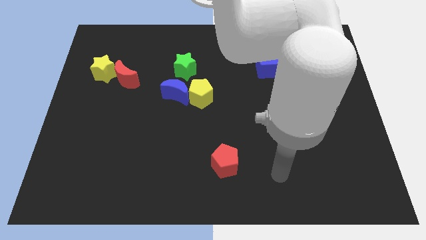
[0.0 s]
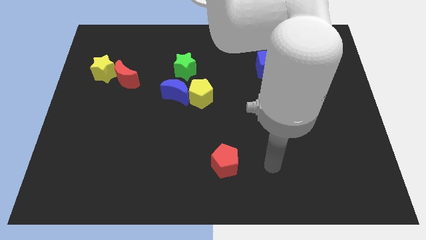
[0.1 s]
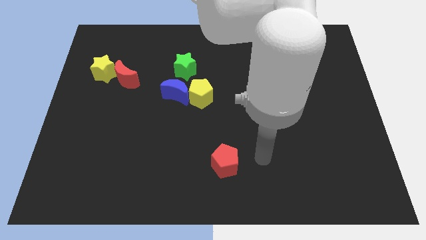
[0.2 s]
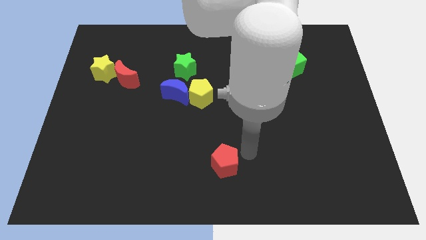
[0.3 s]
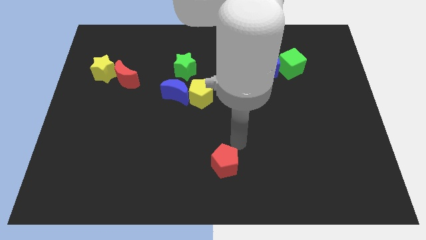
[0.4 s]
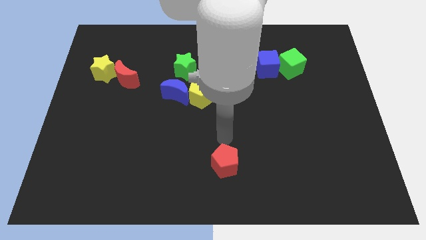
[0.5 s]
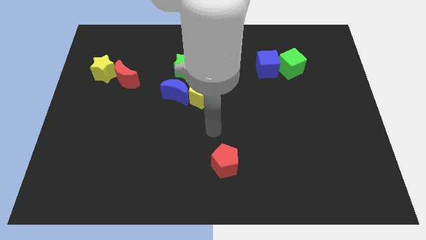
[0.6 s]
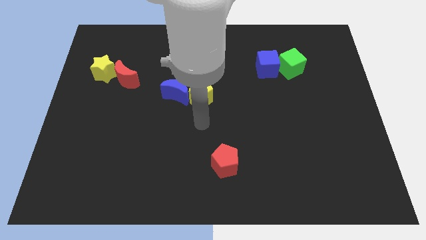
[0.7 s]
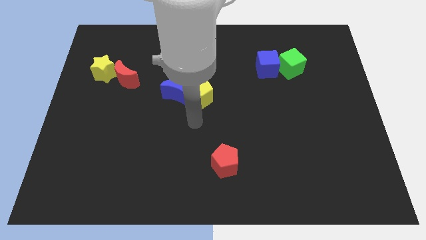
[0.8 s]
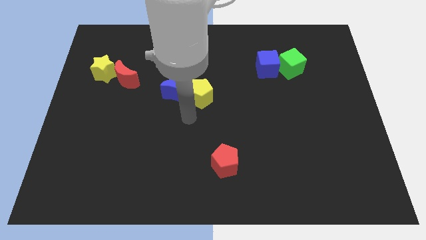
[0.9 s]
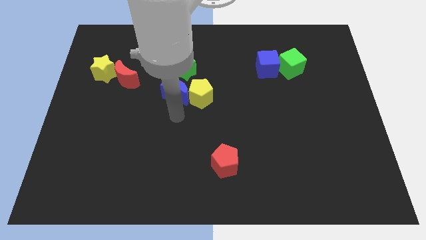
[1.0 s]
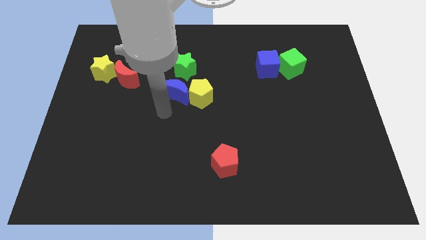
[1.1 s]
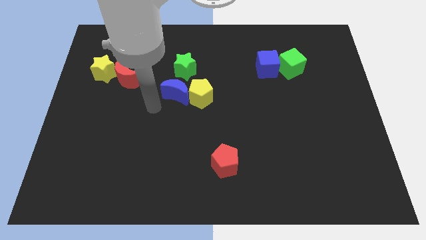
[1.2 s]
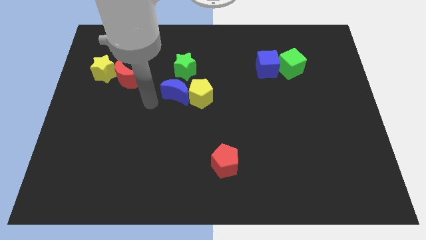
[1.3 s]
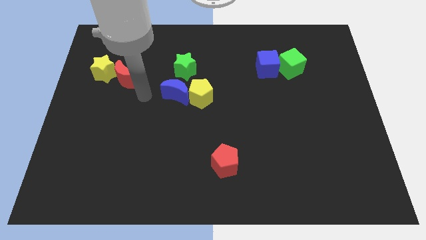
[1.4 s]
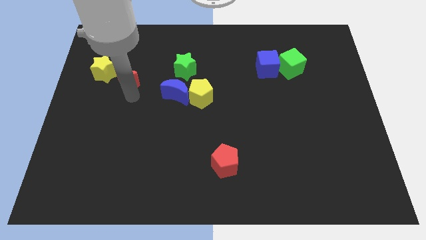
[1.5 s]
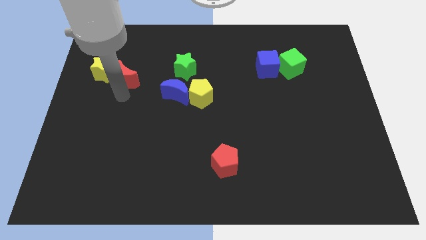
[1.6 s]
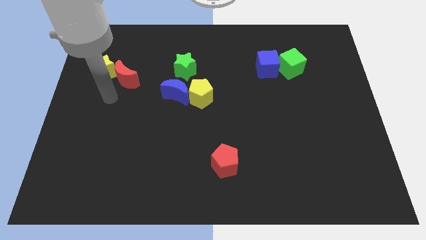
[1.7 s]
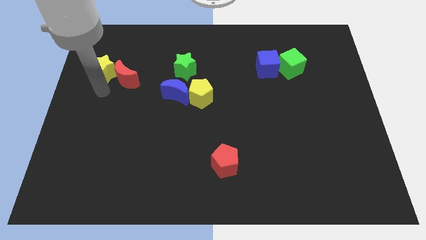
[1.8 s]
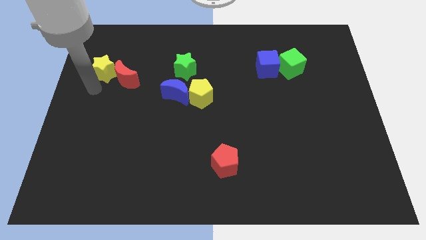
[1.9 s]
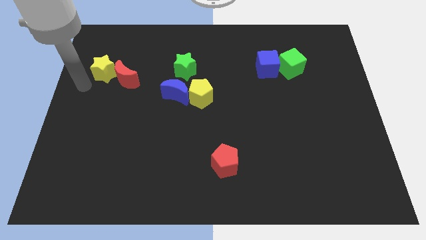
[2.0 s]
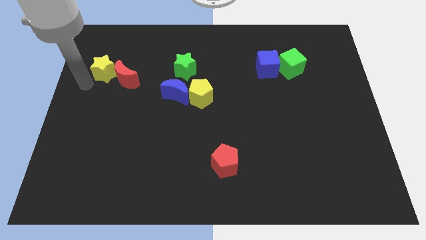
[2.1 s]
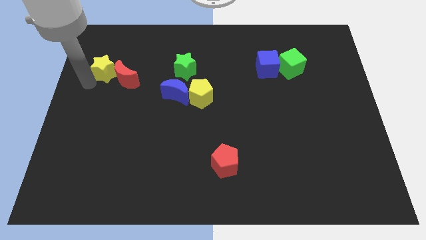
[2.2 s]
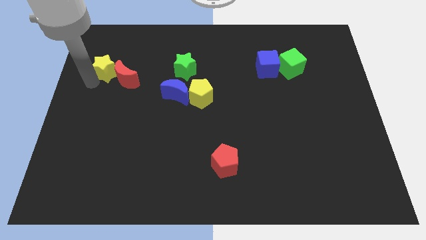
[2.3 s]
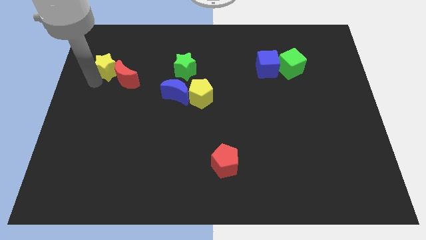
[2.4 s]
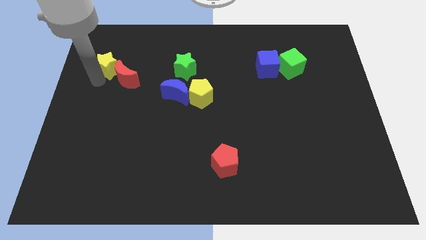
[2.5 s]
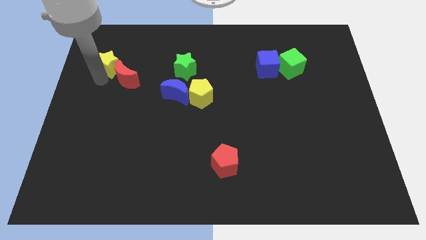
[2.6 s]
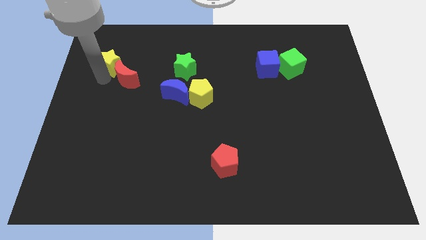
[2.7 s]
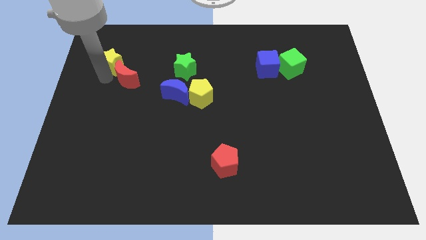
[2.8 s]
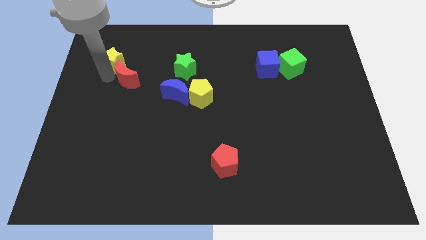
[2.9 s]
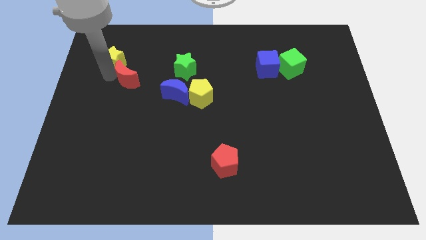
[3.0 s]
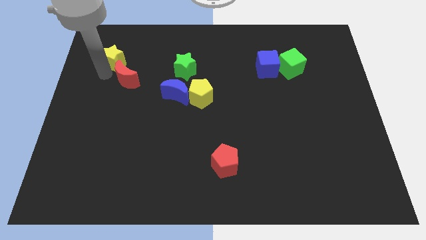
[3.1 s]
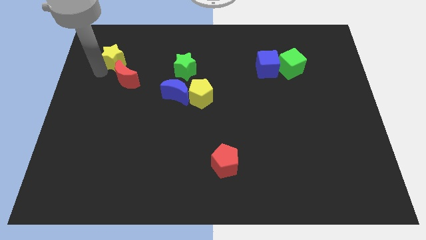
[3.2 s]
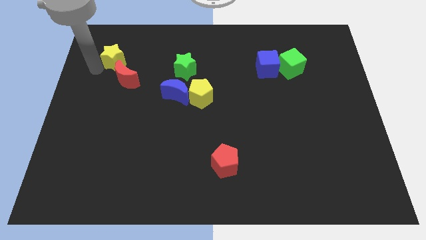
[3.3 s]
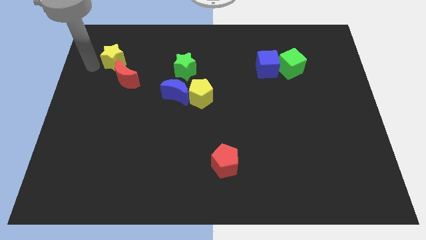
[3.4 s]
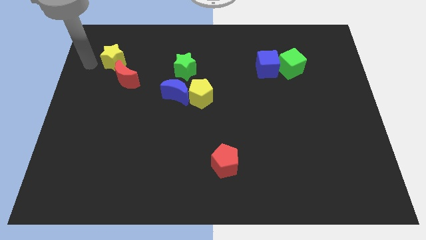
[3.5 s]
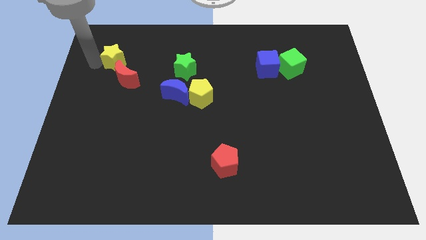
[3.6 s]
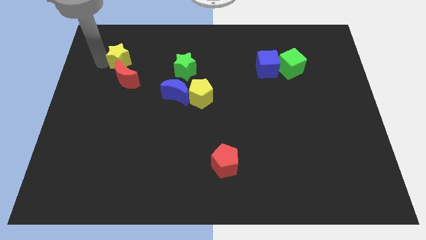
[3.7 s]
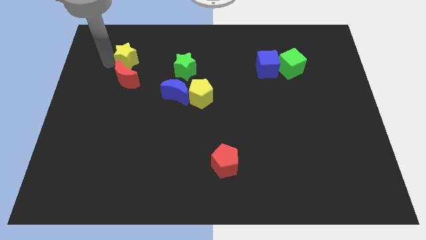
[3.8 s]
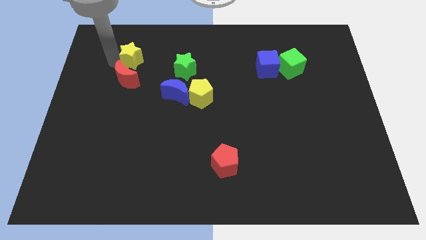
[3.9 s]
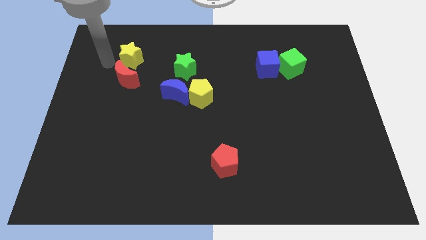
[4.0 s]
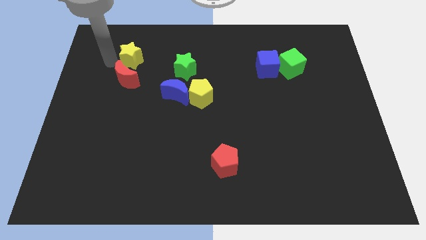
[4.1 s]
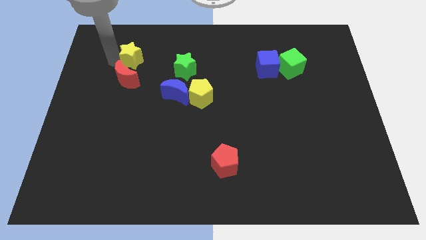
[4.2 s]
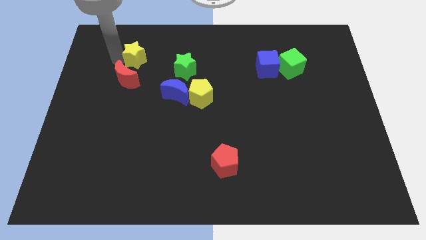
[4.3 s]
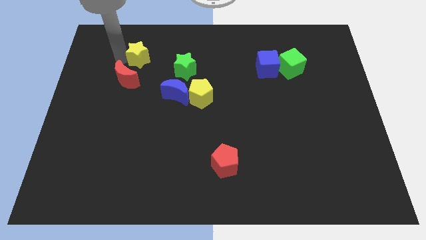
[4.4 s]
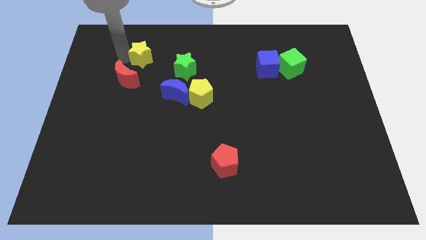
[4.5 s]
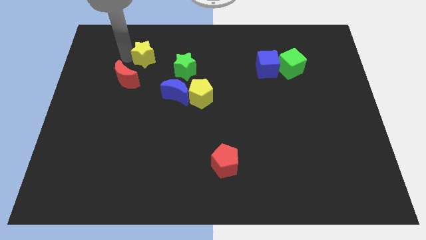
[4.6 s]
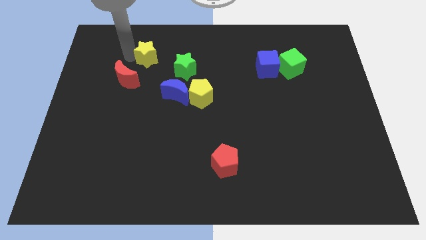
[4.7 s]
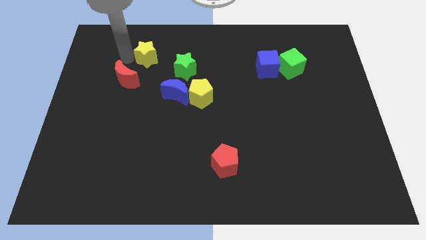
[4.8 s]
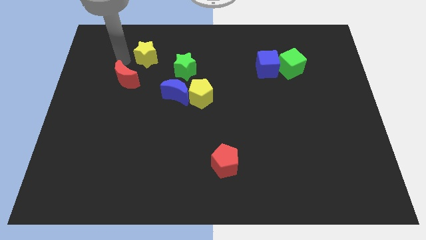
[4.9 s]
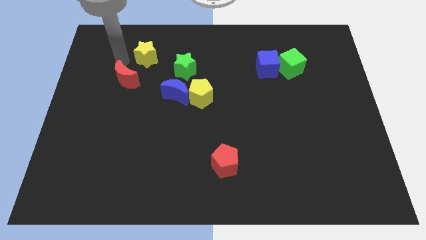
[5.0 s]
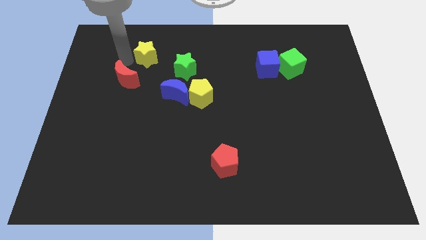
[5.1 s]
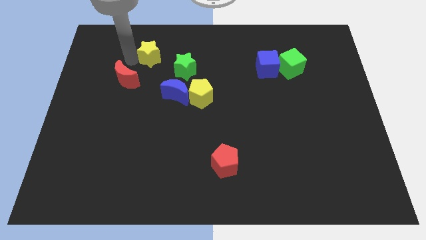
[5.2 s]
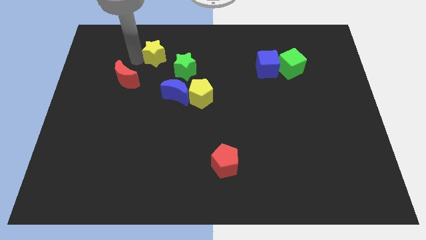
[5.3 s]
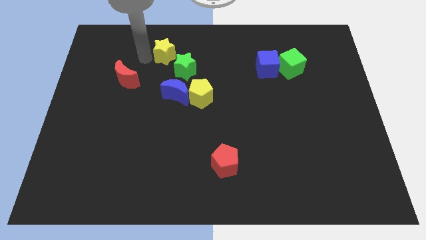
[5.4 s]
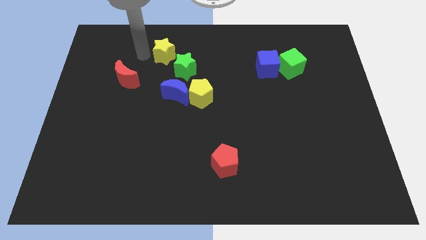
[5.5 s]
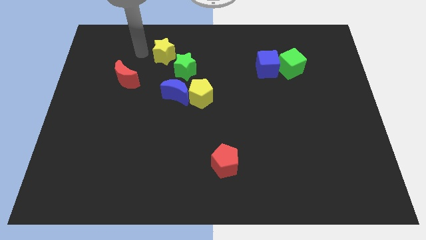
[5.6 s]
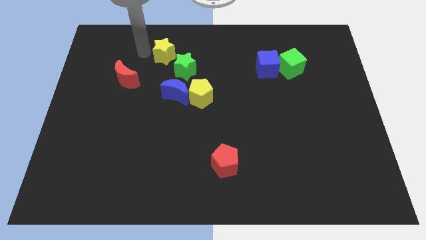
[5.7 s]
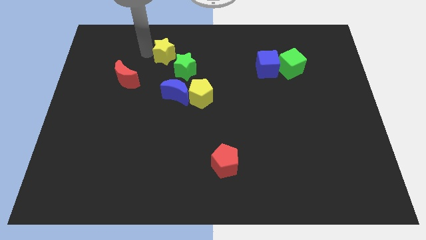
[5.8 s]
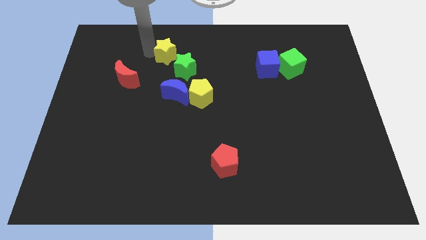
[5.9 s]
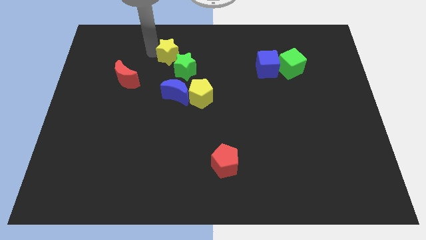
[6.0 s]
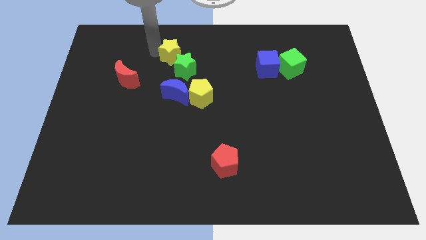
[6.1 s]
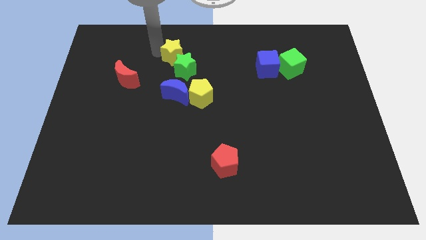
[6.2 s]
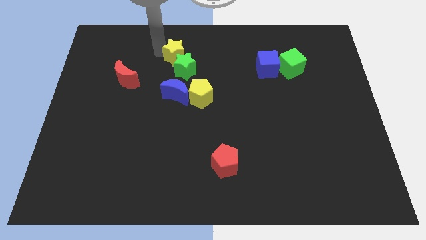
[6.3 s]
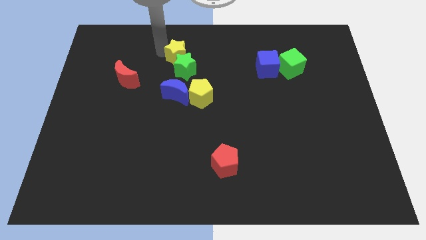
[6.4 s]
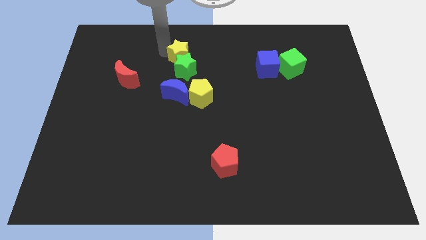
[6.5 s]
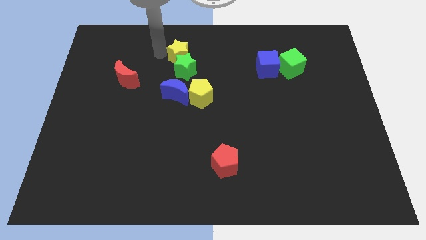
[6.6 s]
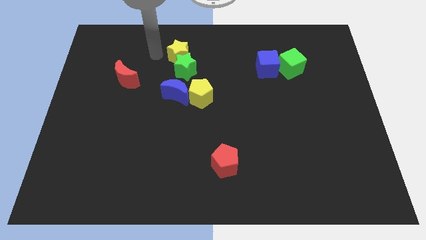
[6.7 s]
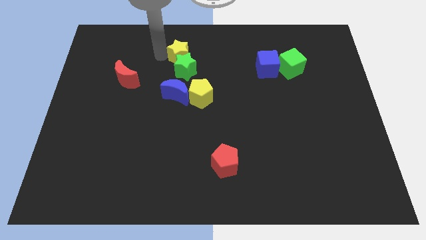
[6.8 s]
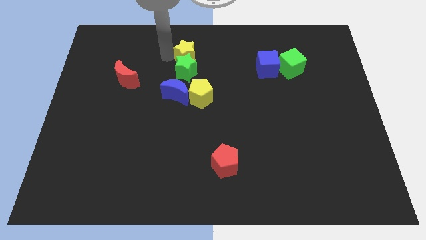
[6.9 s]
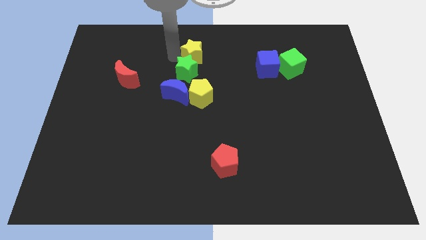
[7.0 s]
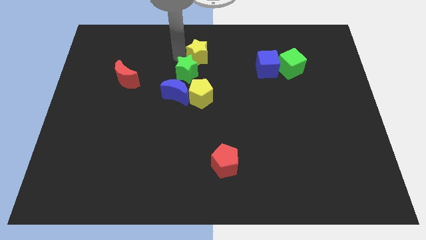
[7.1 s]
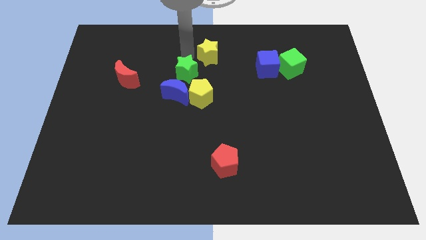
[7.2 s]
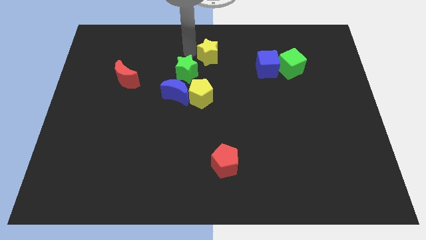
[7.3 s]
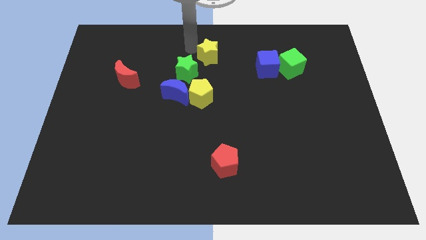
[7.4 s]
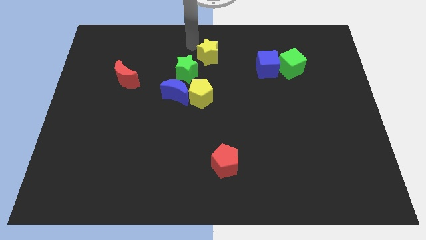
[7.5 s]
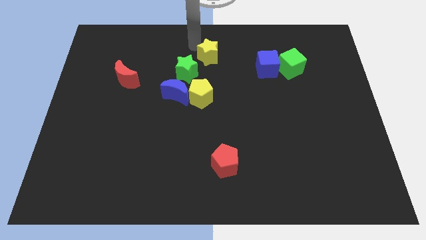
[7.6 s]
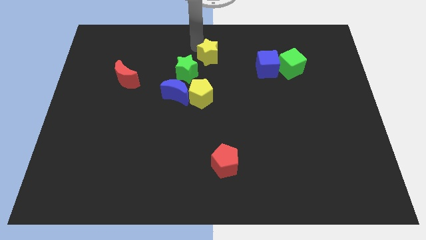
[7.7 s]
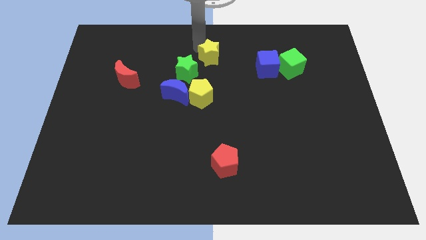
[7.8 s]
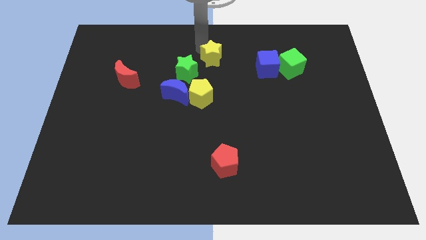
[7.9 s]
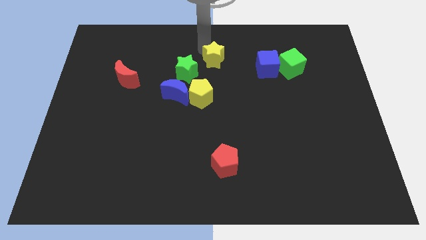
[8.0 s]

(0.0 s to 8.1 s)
move the yellow star just right of the green star
